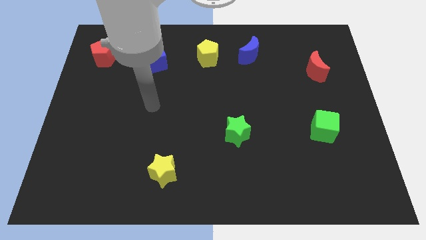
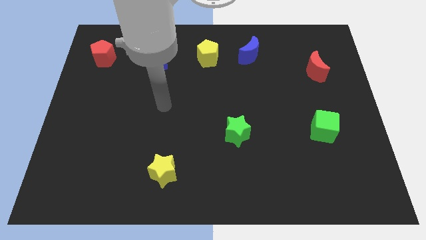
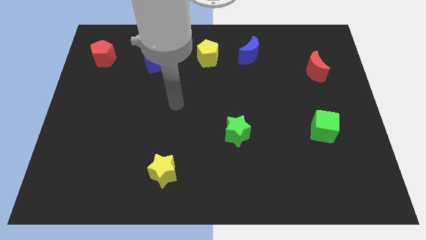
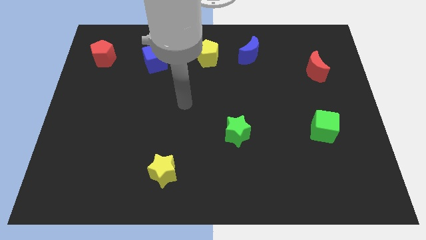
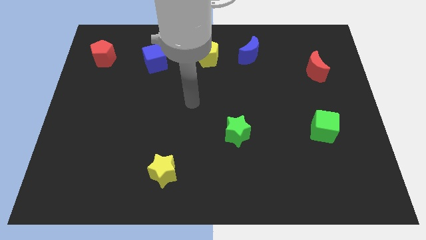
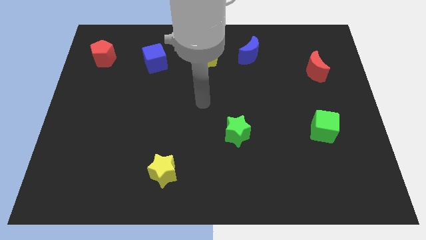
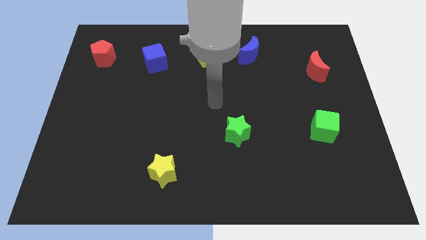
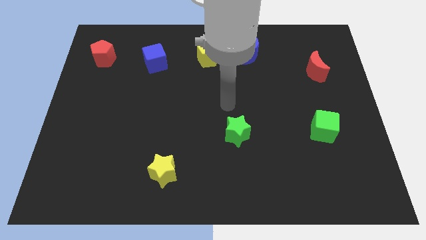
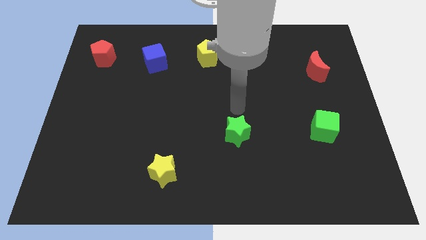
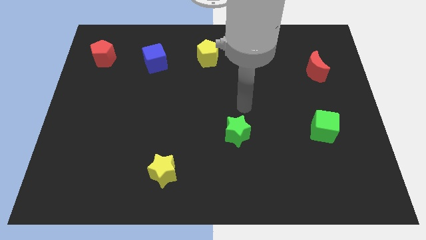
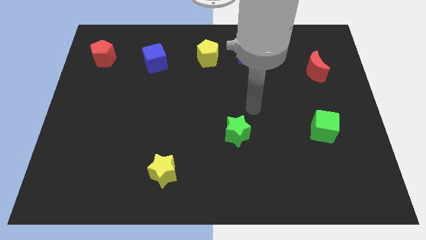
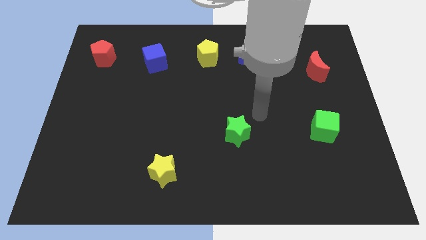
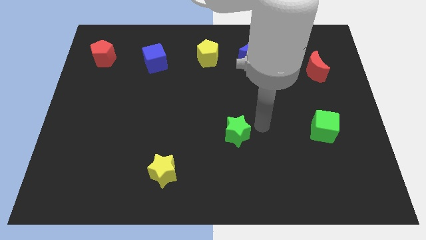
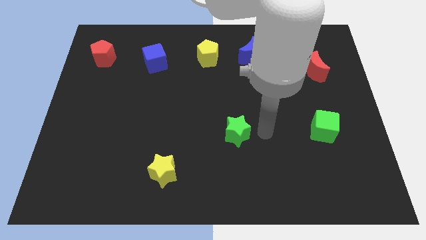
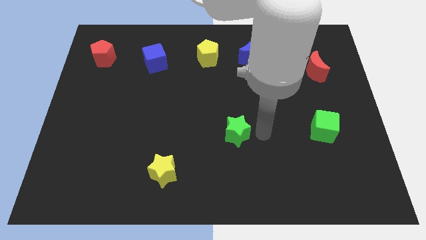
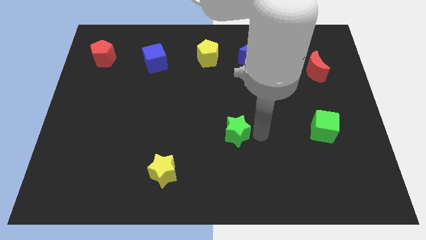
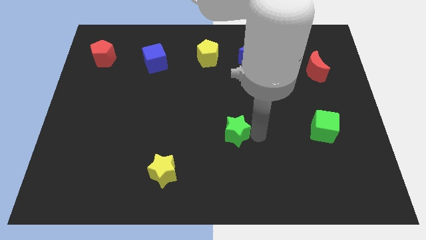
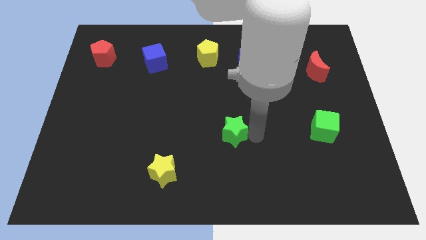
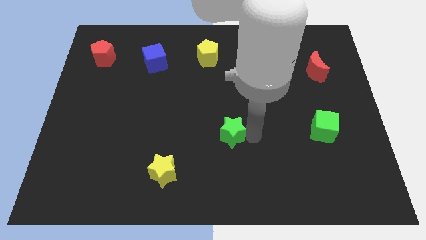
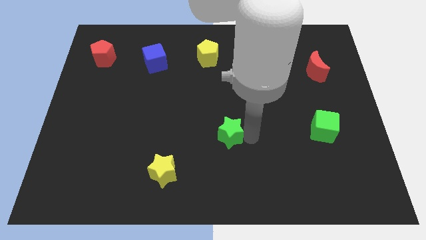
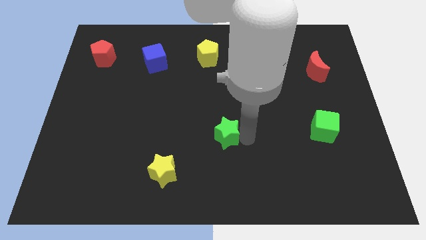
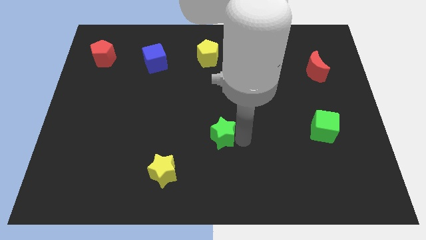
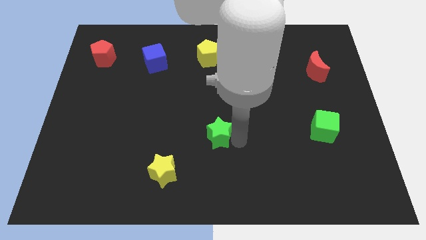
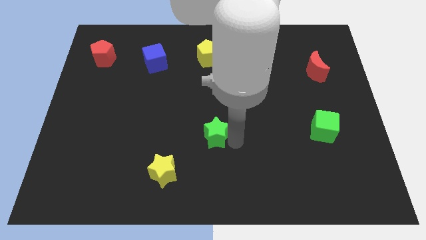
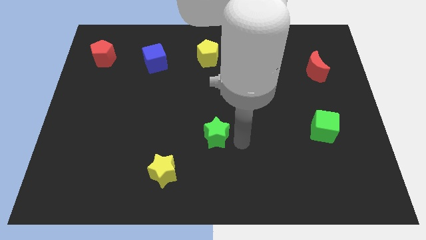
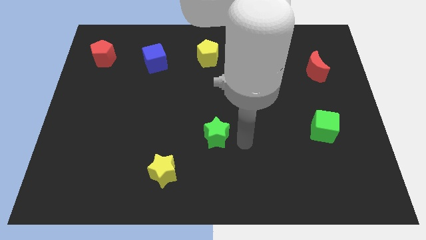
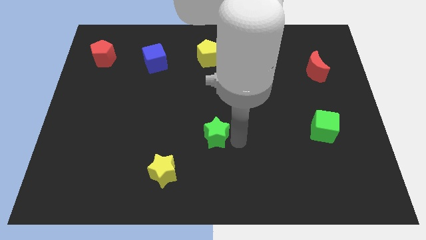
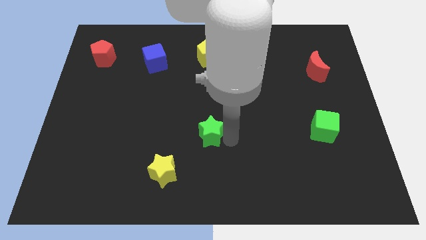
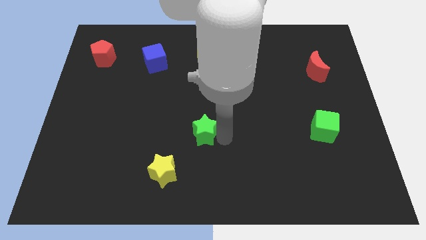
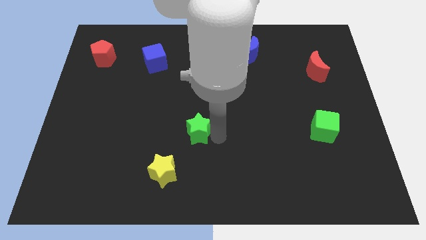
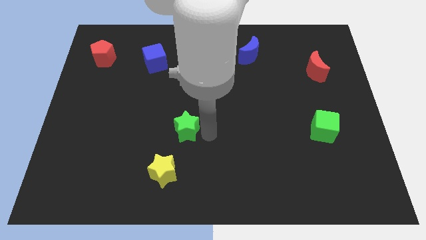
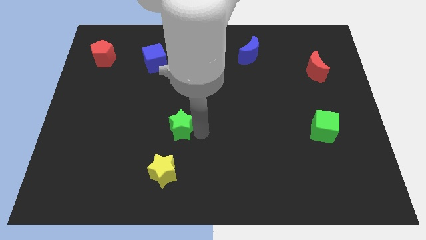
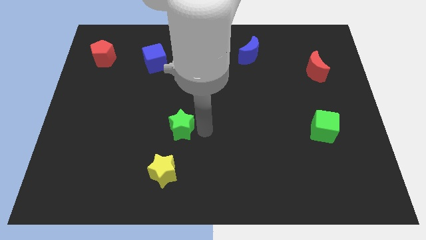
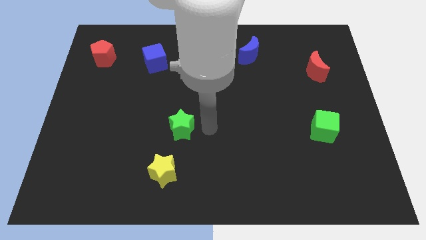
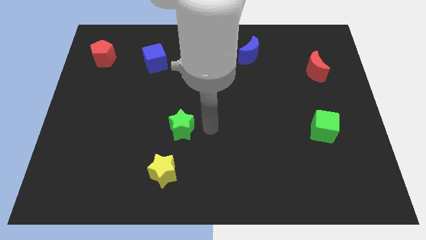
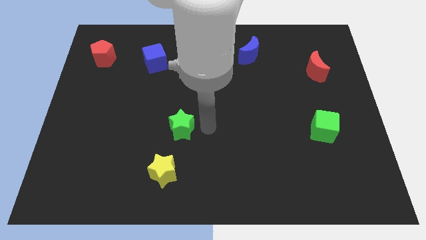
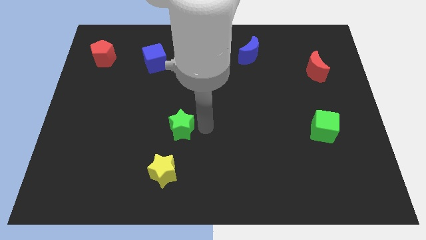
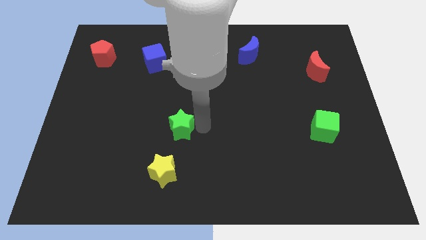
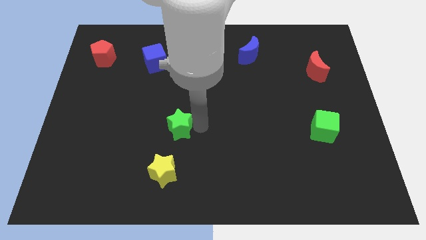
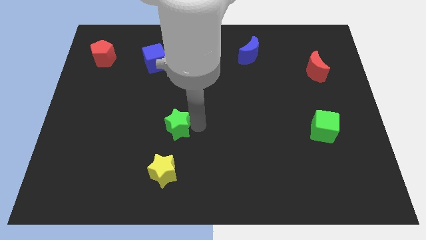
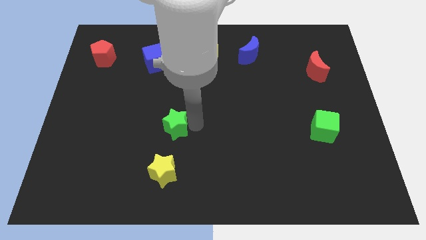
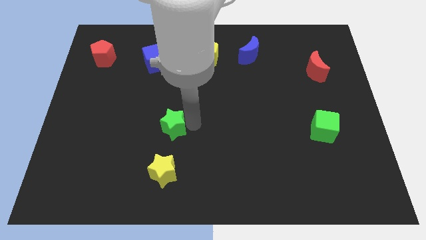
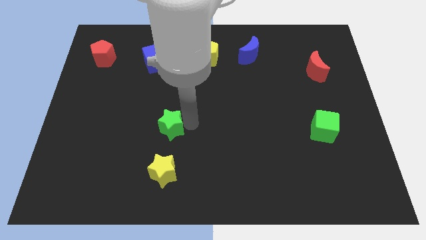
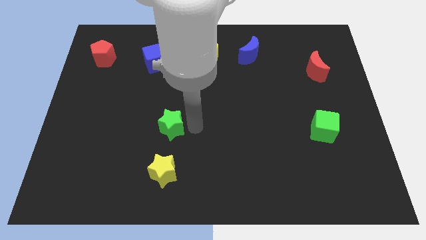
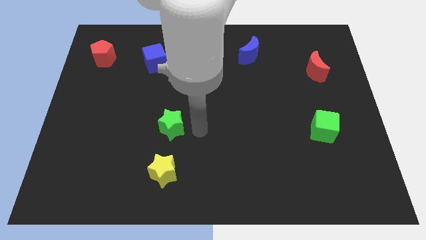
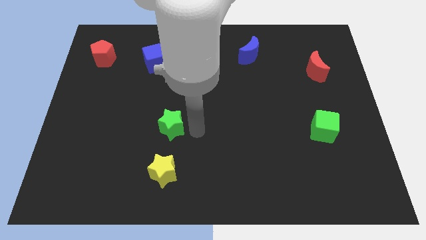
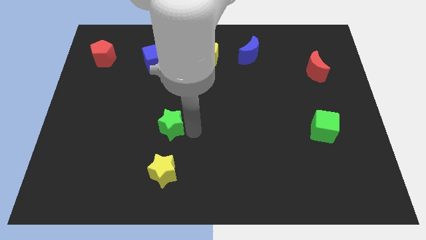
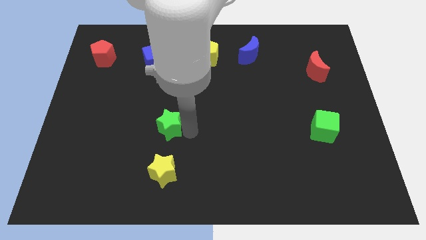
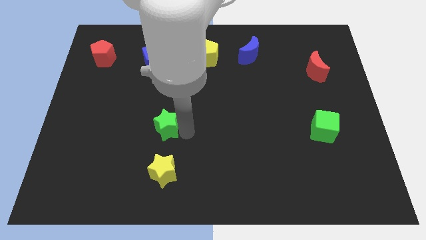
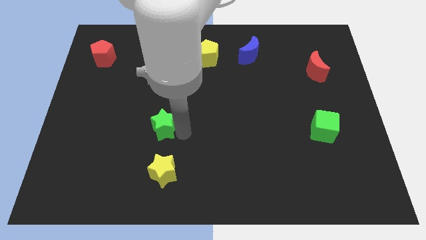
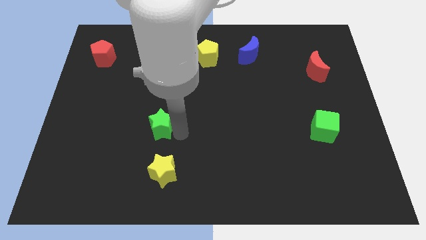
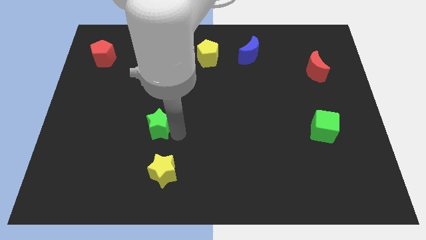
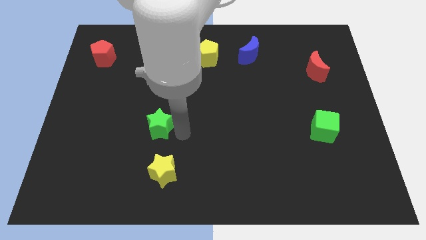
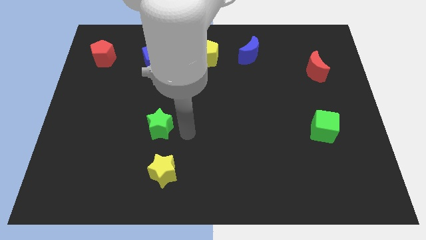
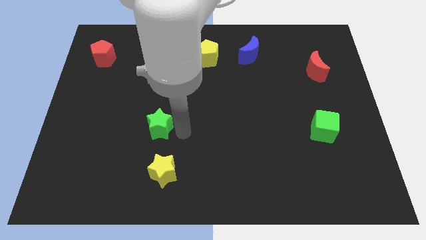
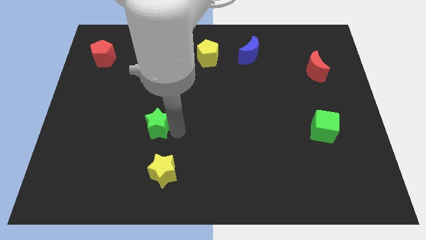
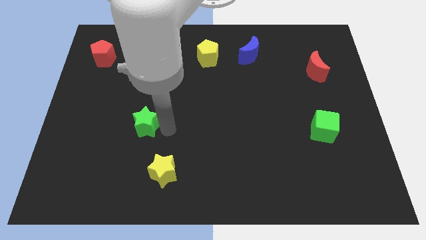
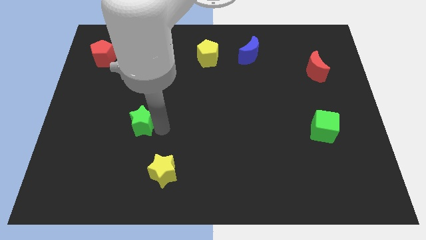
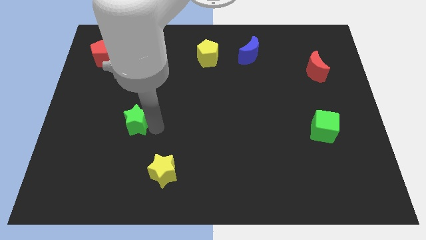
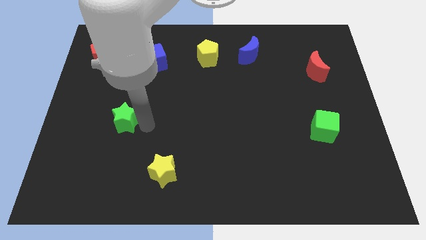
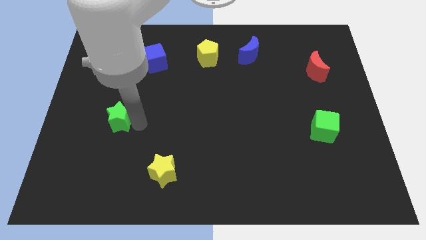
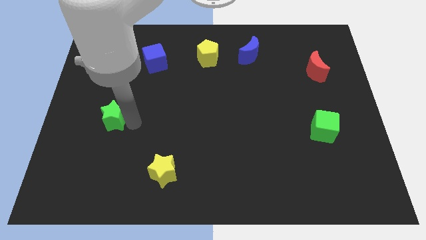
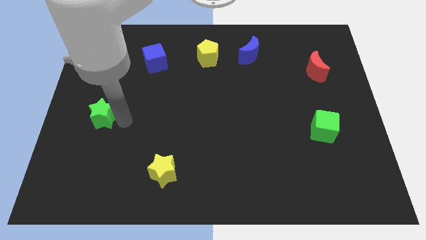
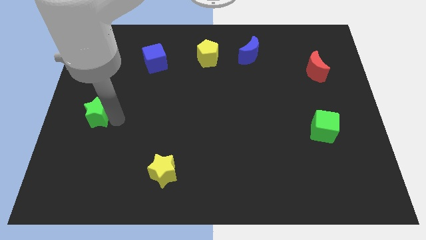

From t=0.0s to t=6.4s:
move the green star to the left side of the board
